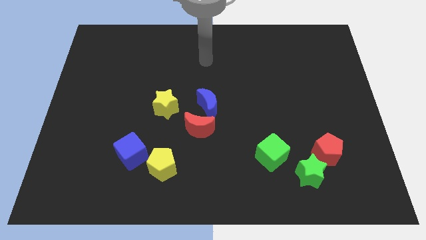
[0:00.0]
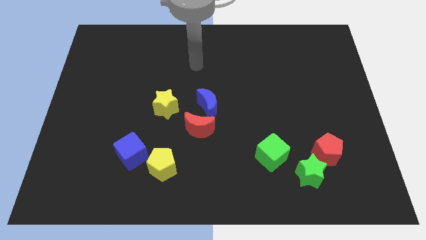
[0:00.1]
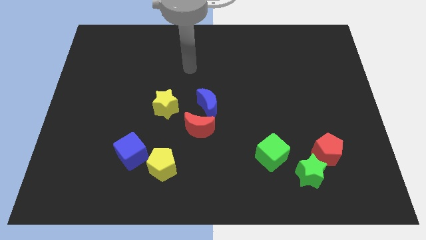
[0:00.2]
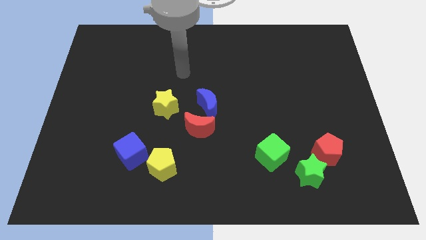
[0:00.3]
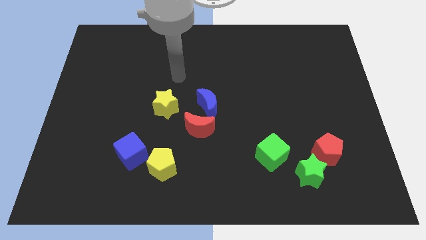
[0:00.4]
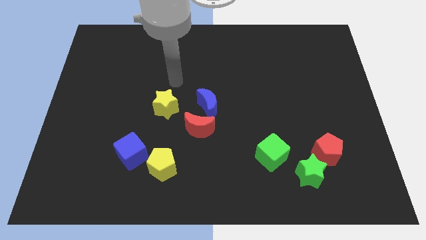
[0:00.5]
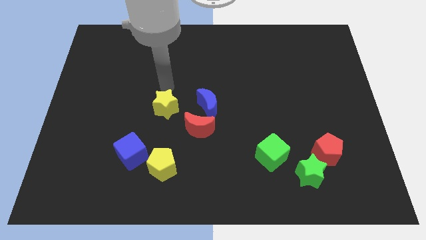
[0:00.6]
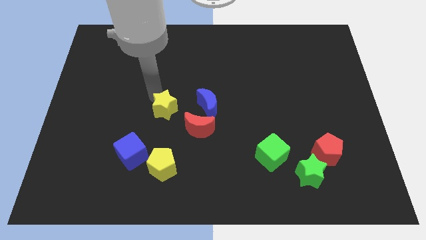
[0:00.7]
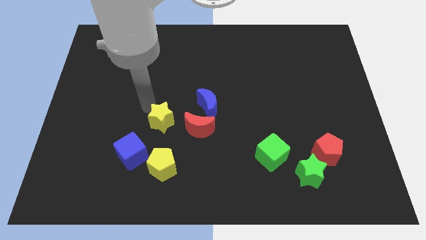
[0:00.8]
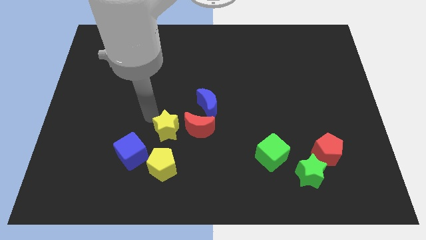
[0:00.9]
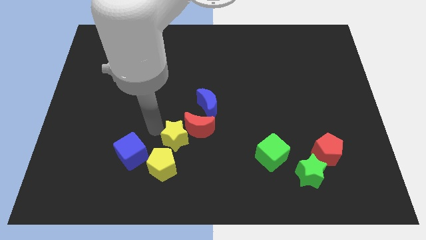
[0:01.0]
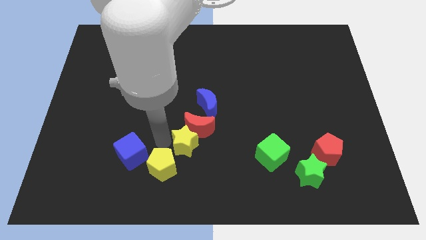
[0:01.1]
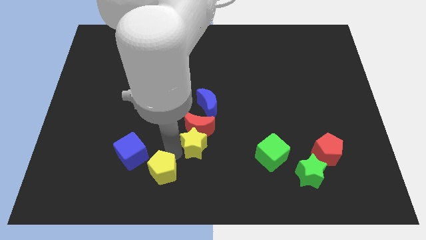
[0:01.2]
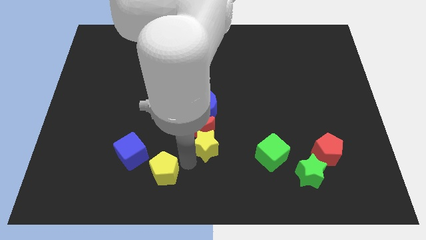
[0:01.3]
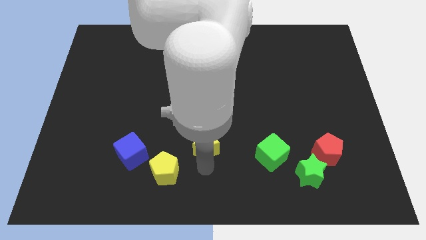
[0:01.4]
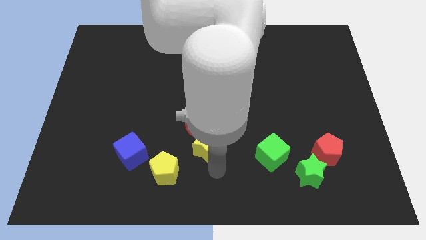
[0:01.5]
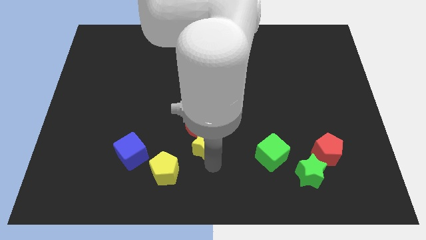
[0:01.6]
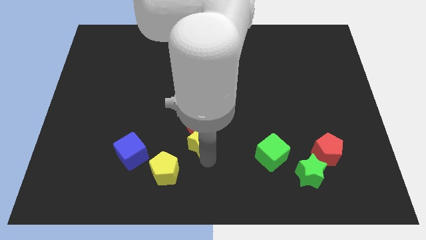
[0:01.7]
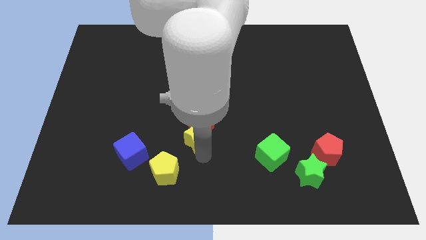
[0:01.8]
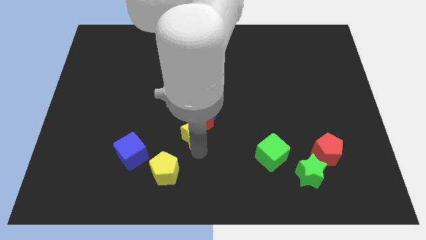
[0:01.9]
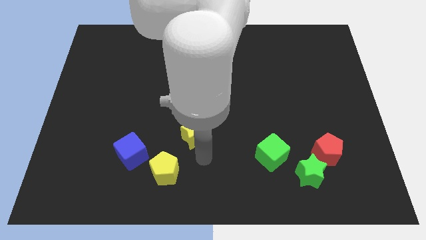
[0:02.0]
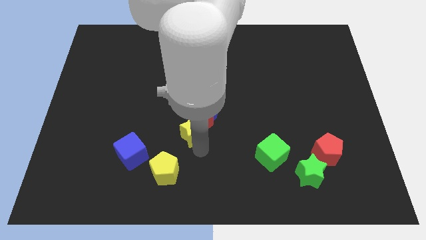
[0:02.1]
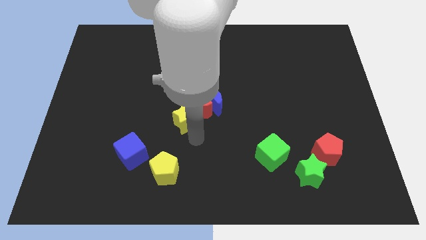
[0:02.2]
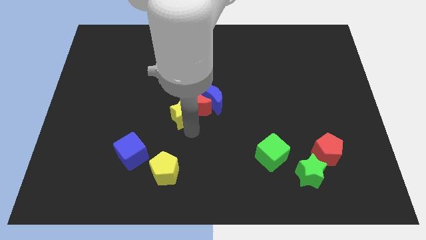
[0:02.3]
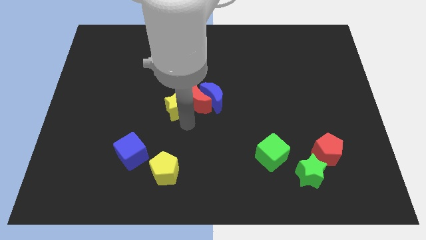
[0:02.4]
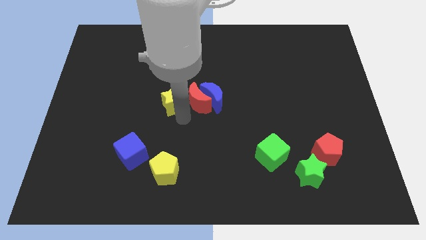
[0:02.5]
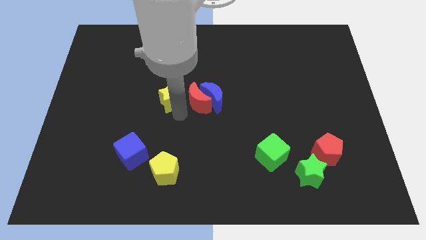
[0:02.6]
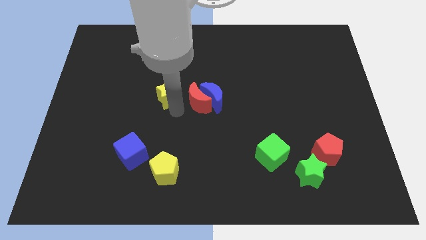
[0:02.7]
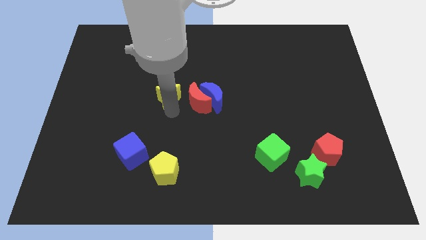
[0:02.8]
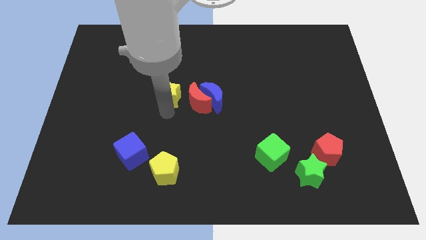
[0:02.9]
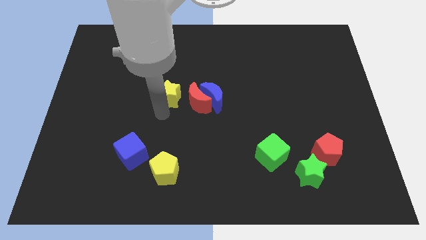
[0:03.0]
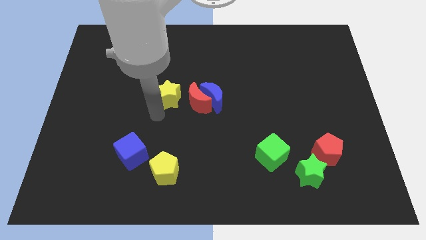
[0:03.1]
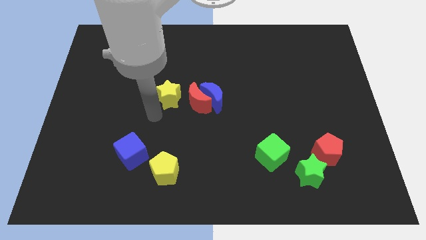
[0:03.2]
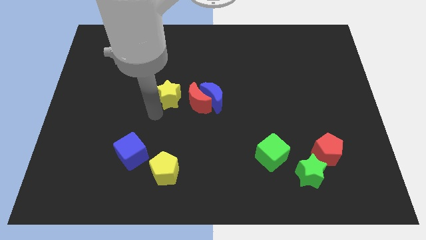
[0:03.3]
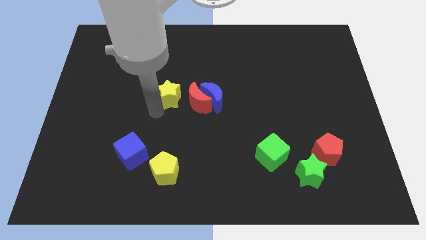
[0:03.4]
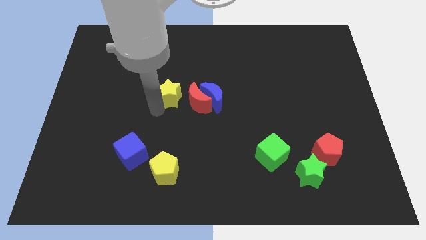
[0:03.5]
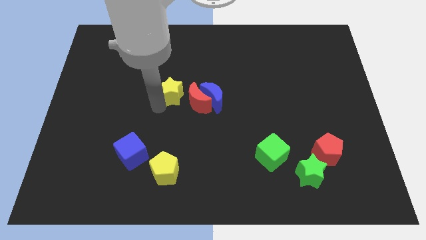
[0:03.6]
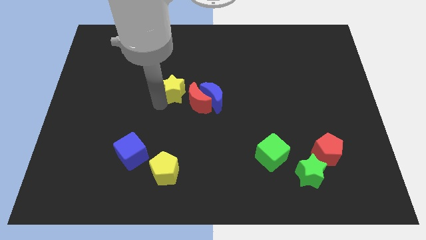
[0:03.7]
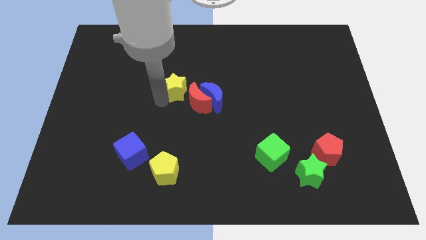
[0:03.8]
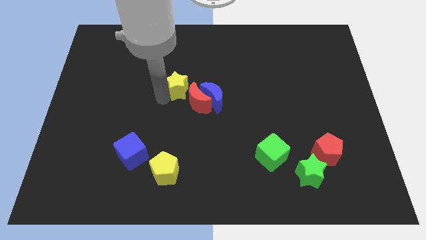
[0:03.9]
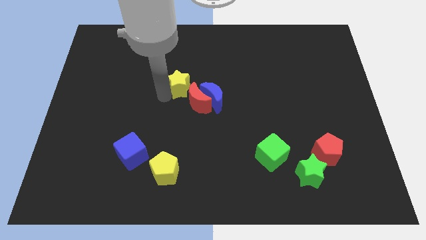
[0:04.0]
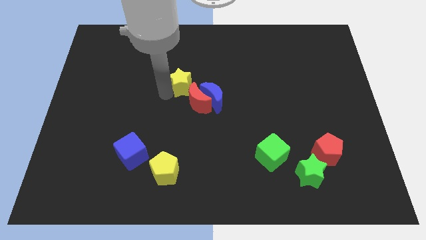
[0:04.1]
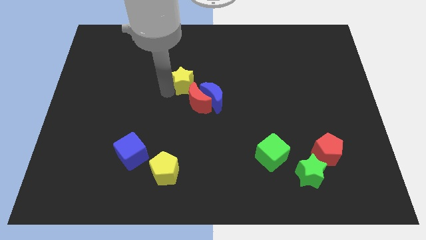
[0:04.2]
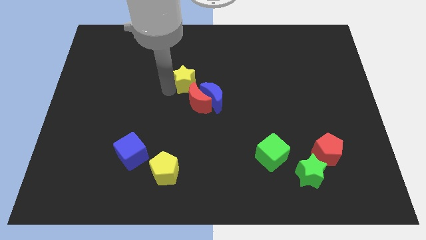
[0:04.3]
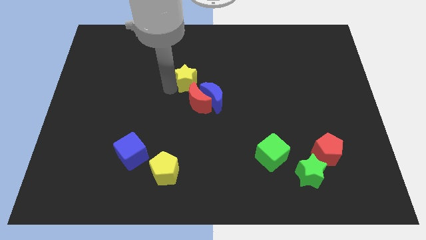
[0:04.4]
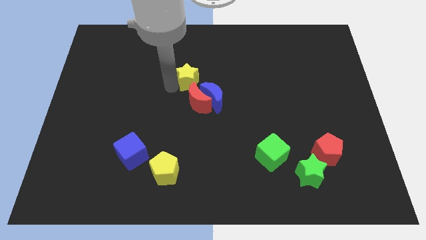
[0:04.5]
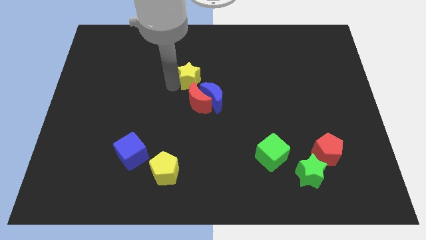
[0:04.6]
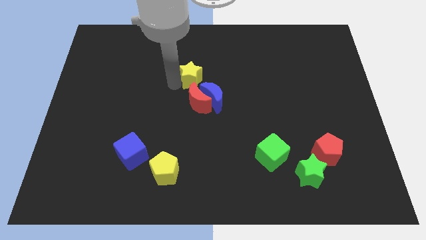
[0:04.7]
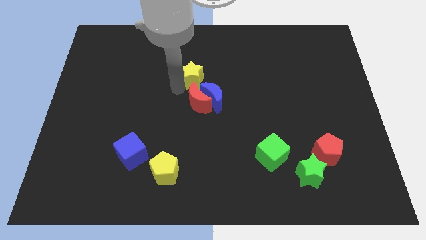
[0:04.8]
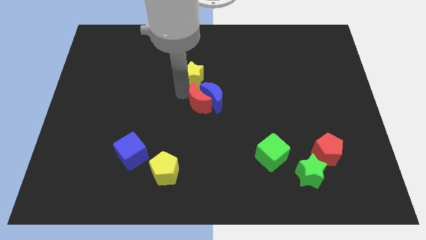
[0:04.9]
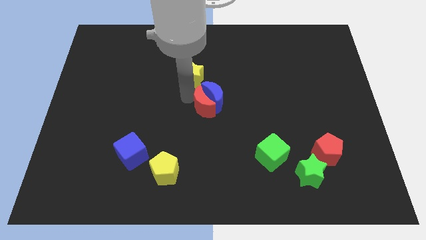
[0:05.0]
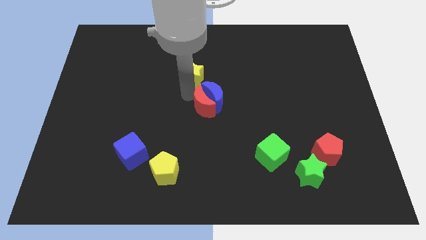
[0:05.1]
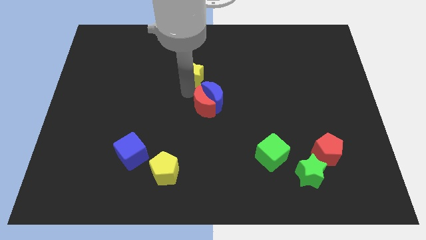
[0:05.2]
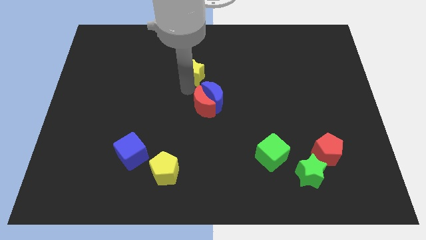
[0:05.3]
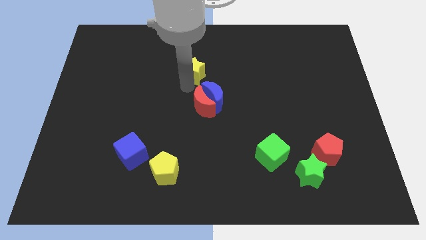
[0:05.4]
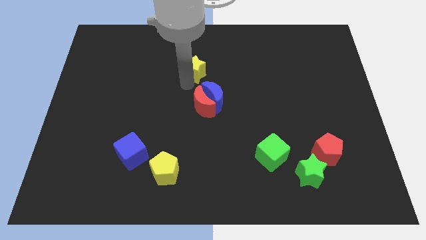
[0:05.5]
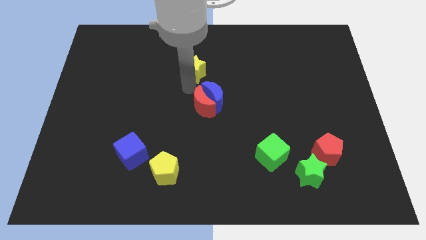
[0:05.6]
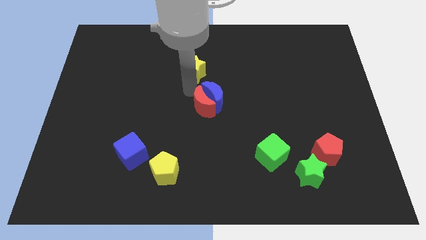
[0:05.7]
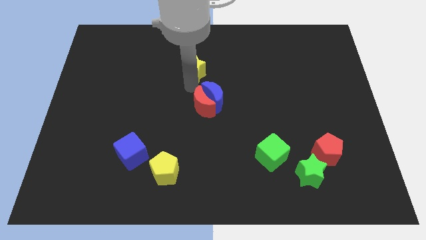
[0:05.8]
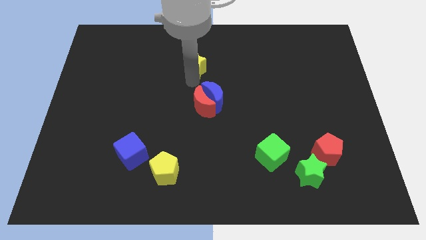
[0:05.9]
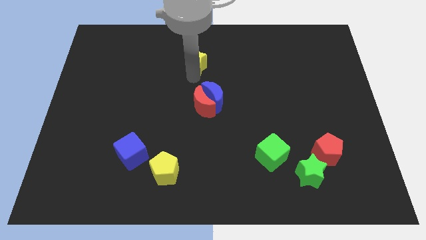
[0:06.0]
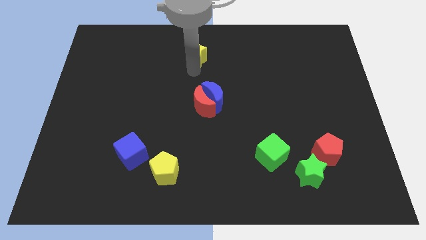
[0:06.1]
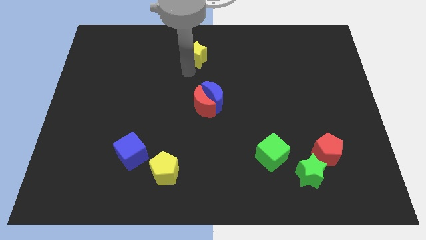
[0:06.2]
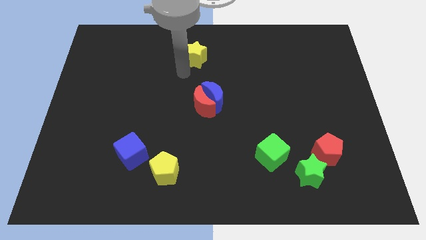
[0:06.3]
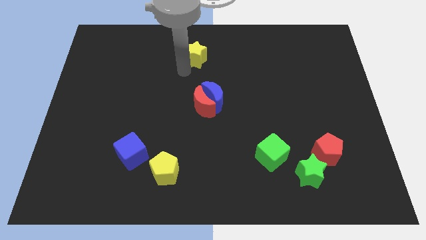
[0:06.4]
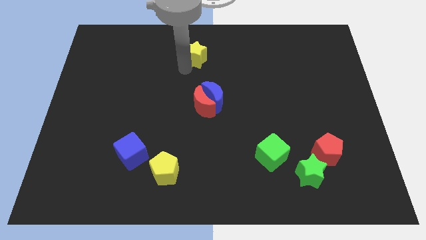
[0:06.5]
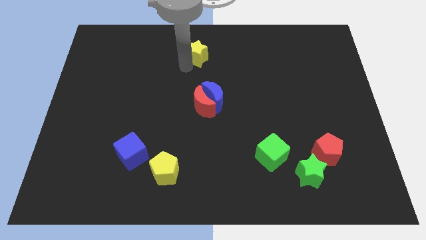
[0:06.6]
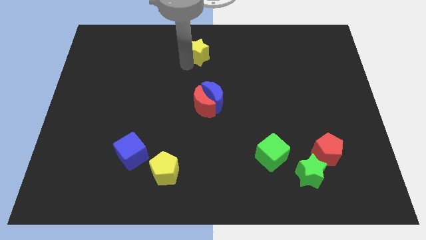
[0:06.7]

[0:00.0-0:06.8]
slide the yellow star to the top
